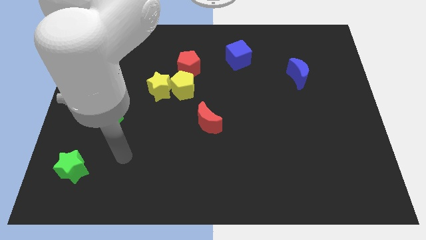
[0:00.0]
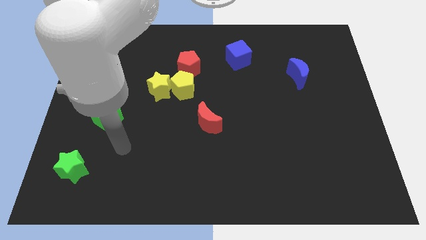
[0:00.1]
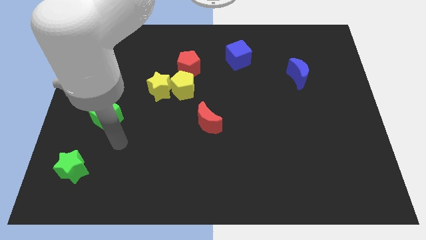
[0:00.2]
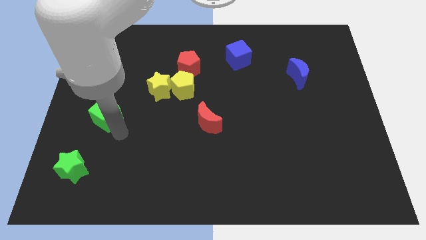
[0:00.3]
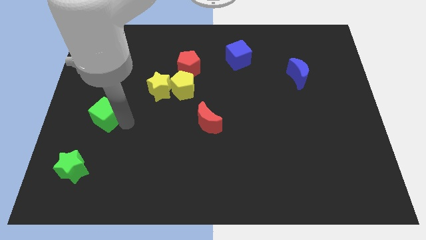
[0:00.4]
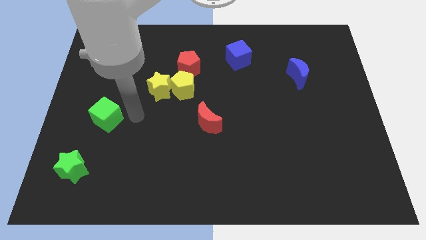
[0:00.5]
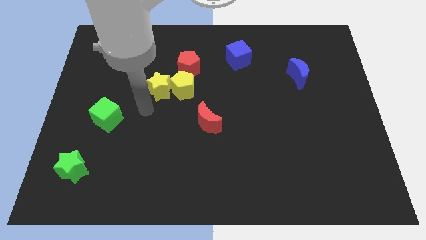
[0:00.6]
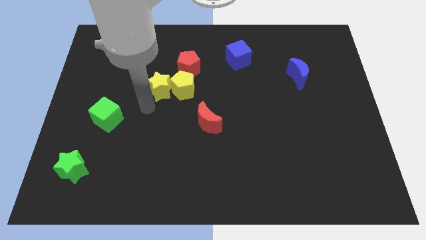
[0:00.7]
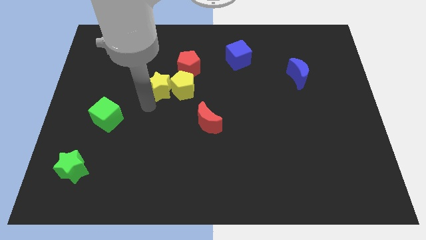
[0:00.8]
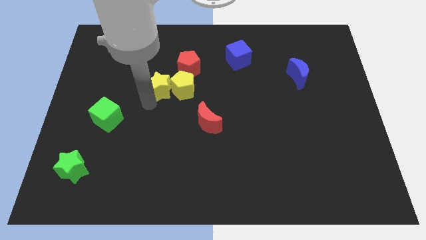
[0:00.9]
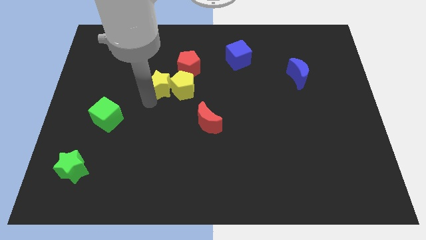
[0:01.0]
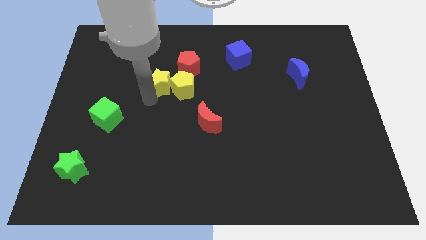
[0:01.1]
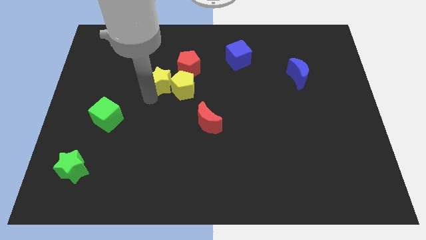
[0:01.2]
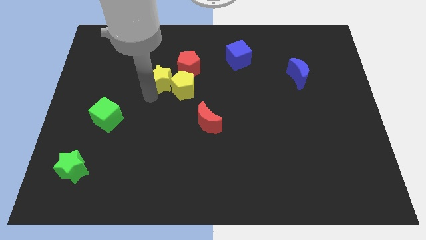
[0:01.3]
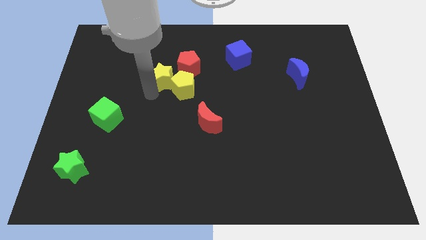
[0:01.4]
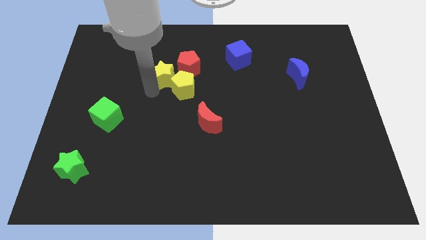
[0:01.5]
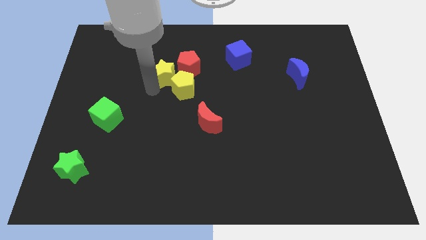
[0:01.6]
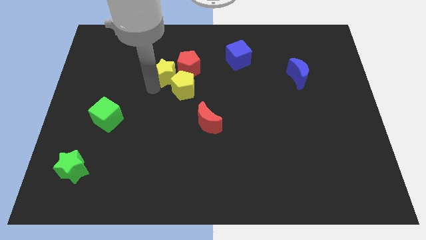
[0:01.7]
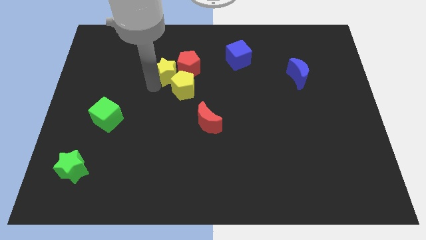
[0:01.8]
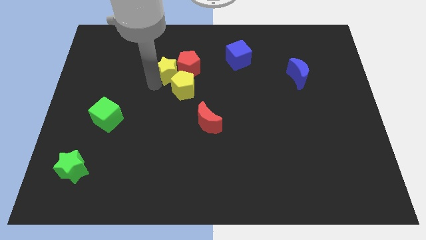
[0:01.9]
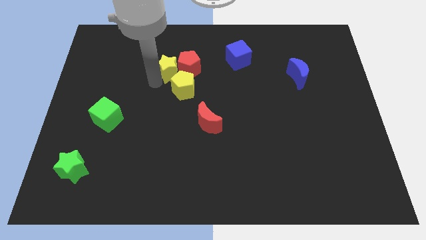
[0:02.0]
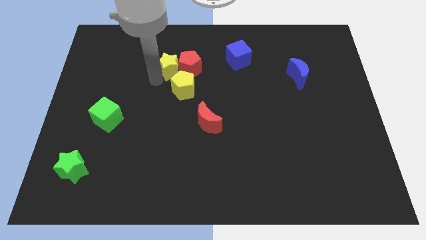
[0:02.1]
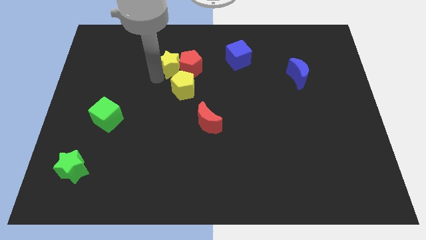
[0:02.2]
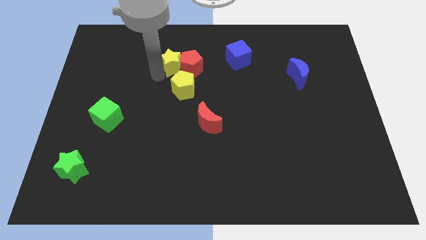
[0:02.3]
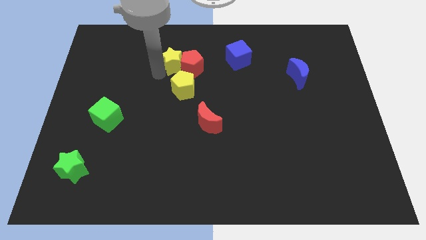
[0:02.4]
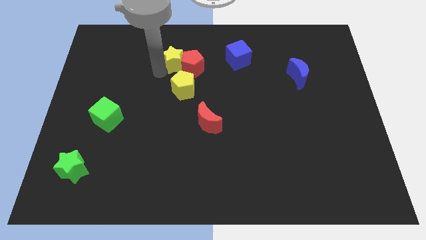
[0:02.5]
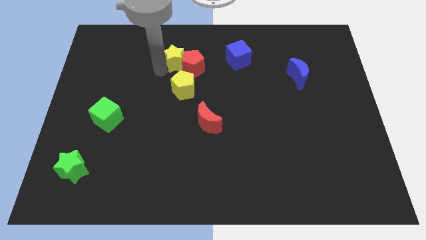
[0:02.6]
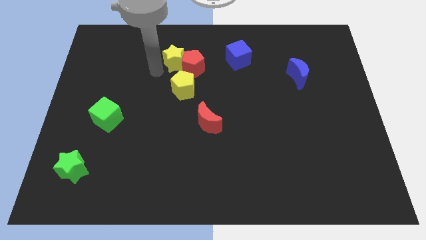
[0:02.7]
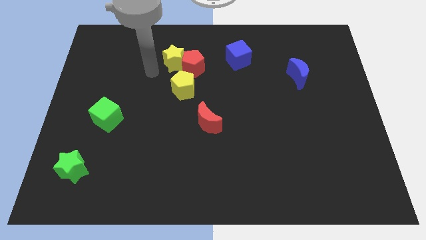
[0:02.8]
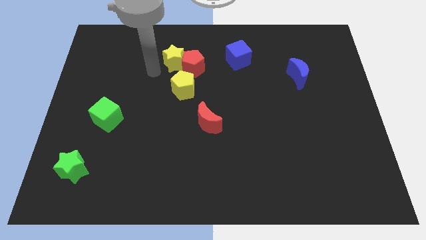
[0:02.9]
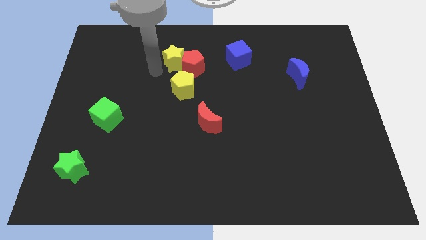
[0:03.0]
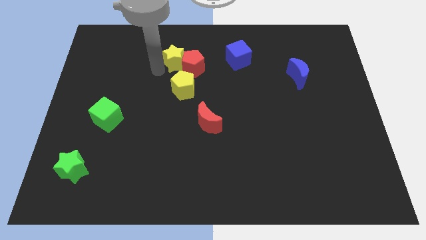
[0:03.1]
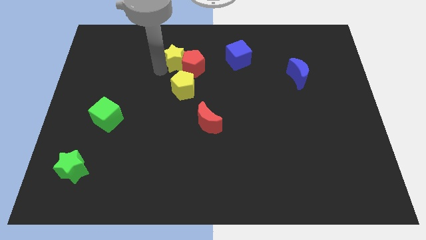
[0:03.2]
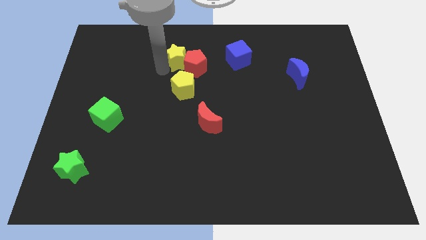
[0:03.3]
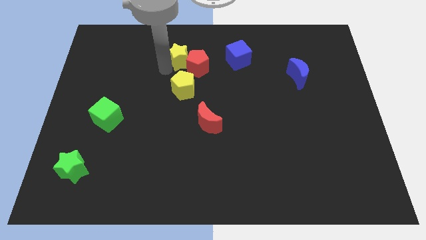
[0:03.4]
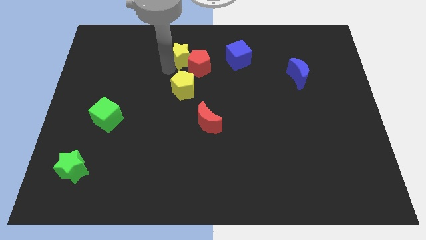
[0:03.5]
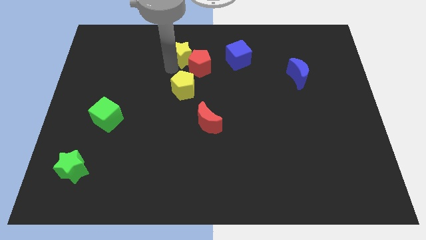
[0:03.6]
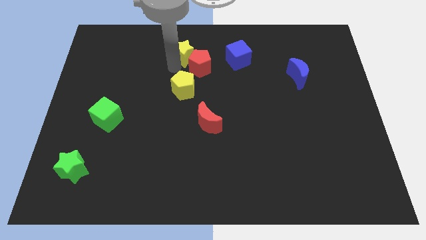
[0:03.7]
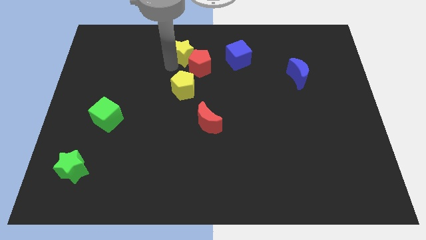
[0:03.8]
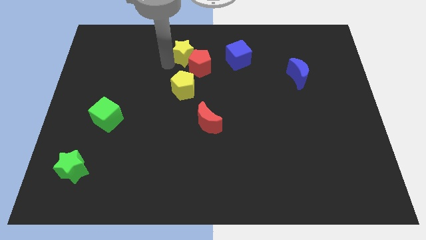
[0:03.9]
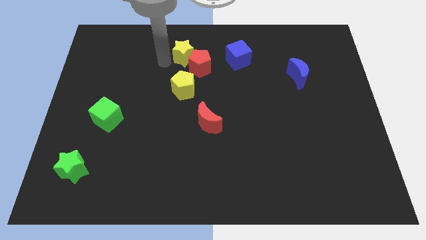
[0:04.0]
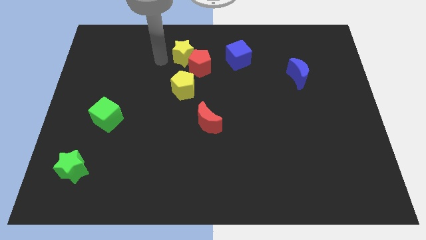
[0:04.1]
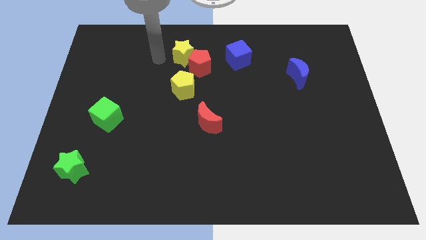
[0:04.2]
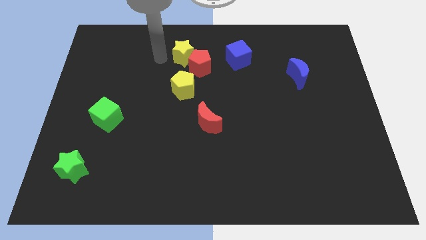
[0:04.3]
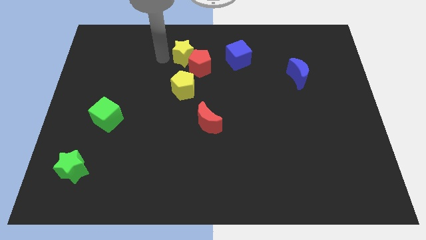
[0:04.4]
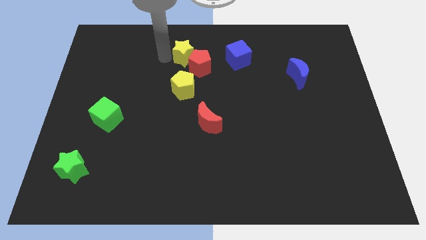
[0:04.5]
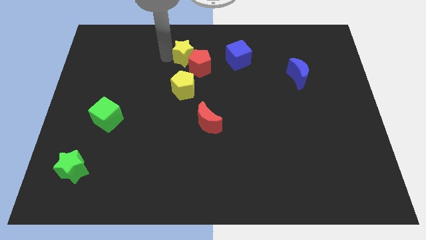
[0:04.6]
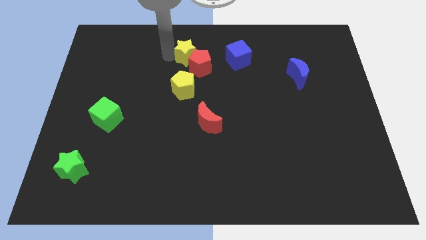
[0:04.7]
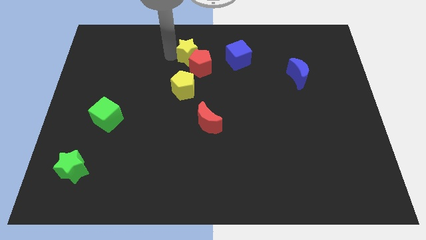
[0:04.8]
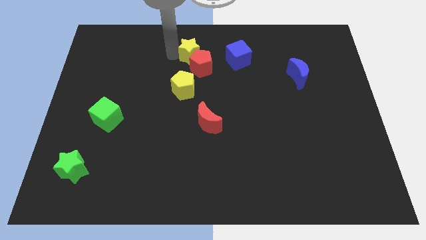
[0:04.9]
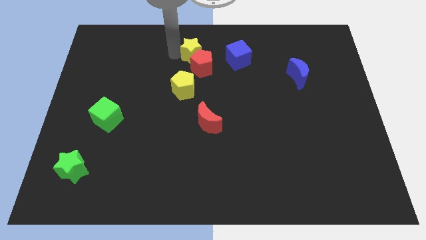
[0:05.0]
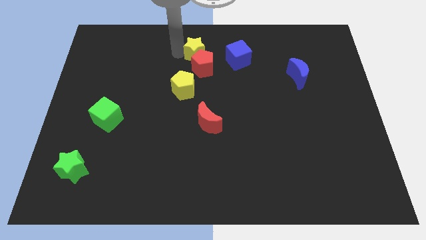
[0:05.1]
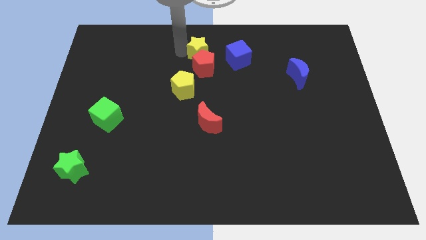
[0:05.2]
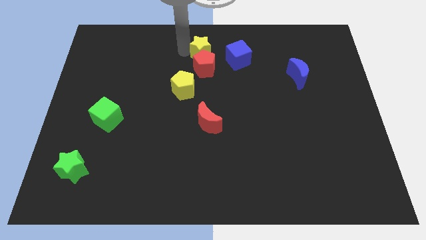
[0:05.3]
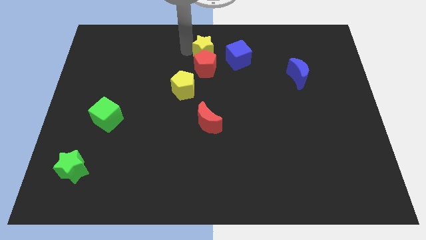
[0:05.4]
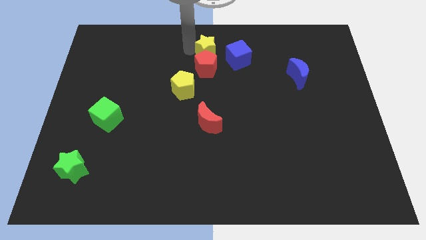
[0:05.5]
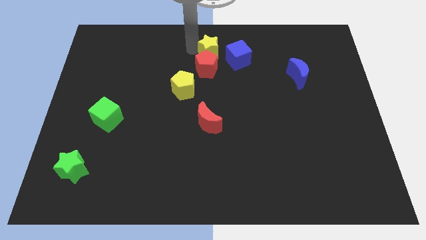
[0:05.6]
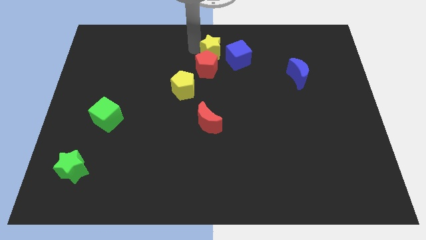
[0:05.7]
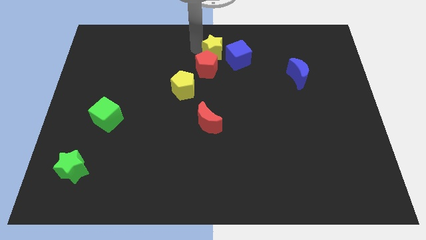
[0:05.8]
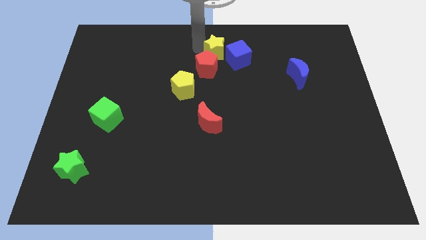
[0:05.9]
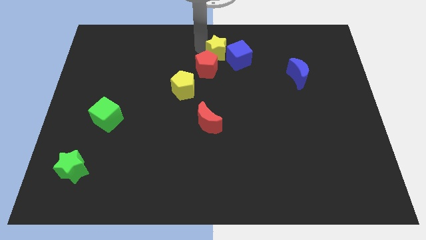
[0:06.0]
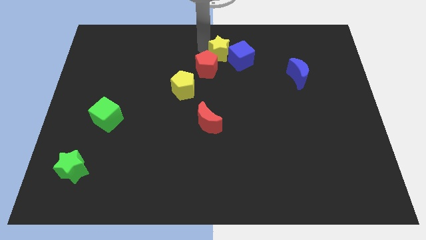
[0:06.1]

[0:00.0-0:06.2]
slide the yellow star close to the blue cube

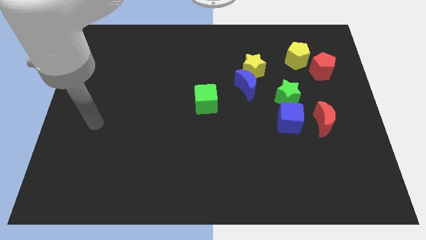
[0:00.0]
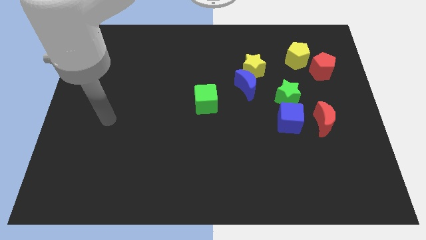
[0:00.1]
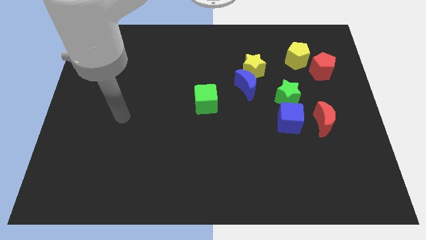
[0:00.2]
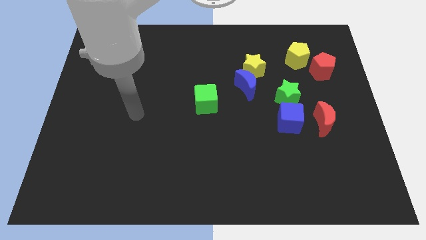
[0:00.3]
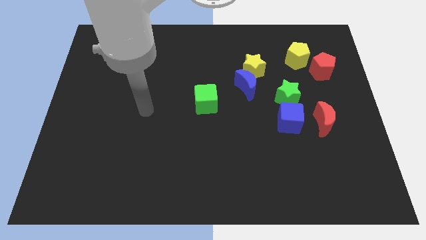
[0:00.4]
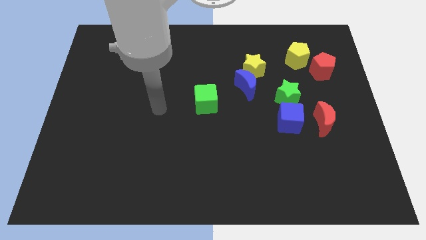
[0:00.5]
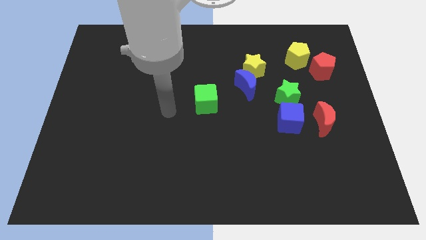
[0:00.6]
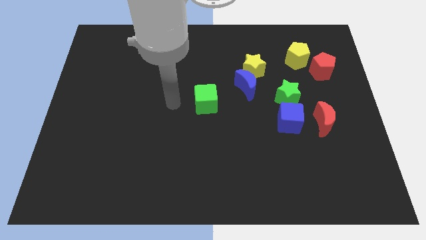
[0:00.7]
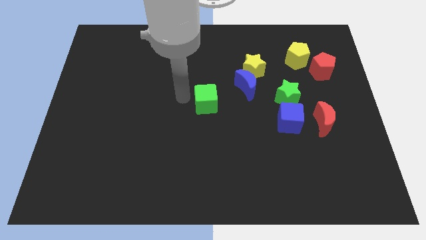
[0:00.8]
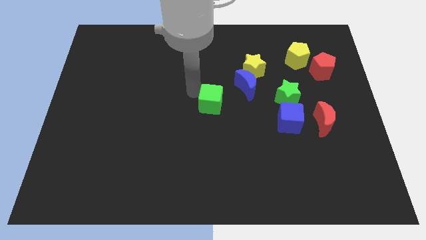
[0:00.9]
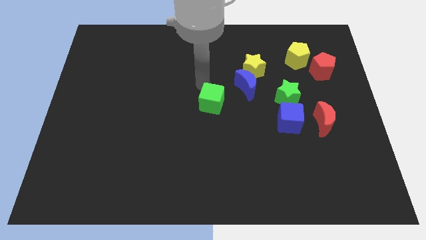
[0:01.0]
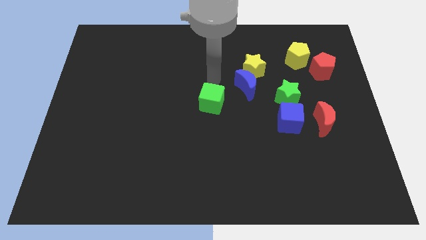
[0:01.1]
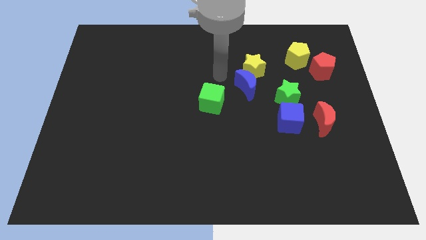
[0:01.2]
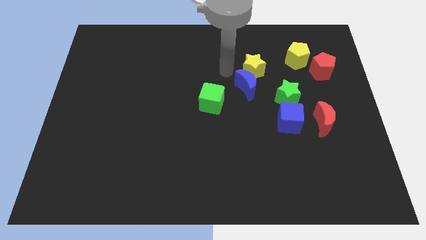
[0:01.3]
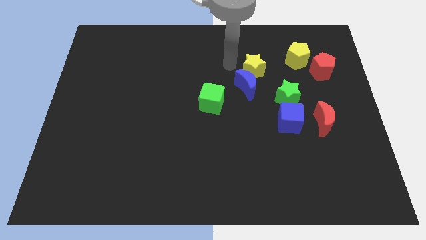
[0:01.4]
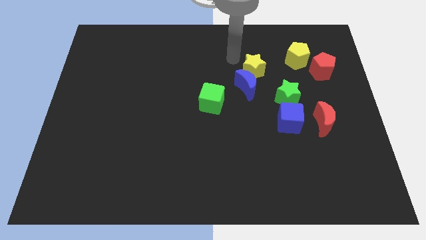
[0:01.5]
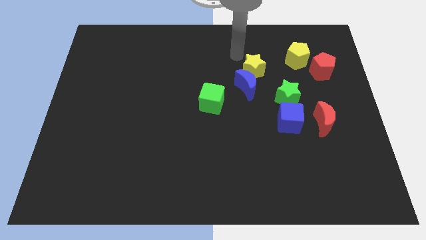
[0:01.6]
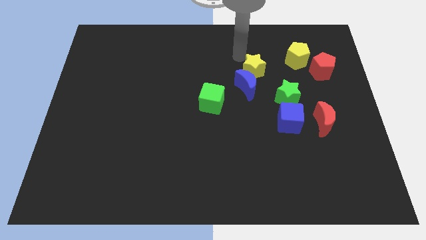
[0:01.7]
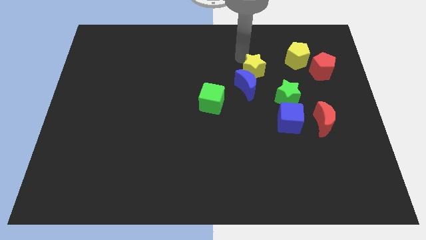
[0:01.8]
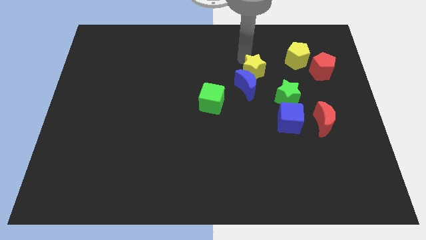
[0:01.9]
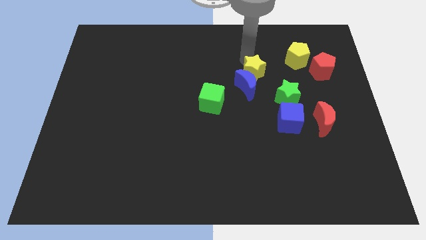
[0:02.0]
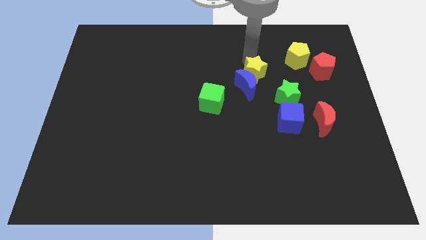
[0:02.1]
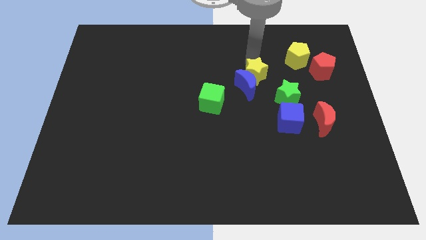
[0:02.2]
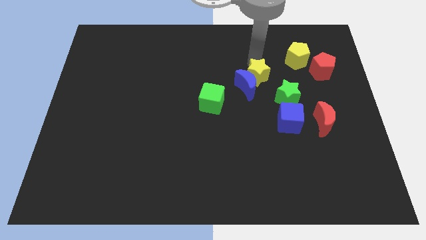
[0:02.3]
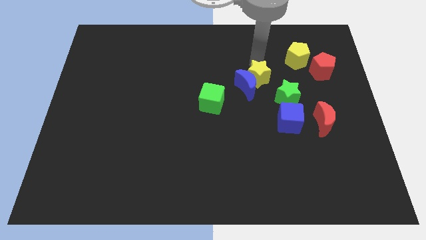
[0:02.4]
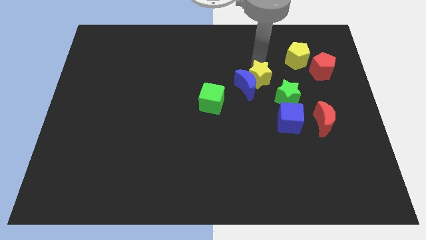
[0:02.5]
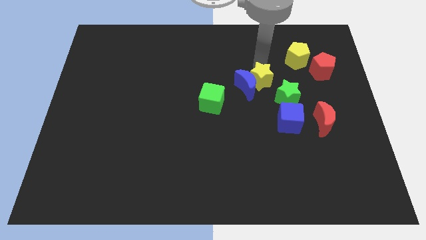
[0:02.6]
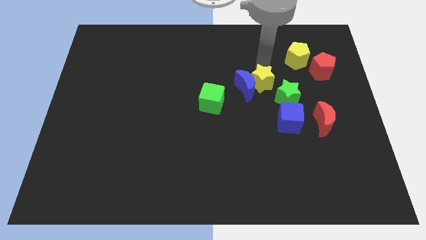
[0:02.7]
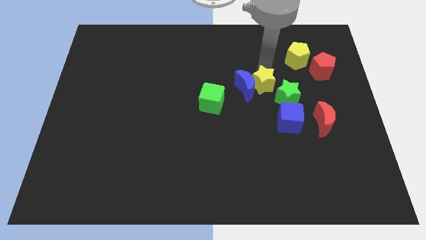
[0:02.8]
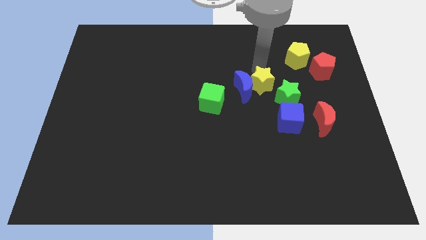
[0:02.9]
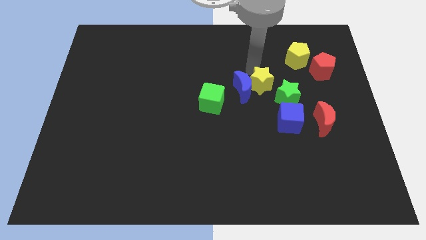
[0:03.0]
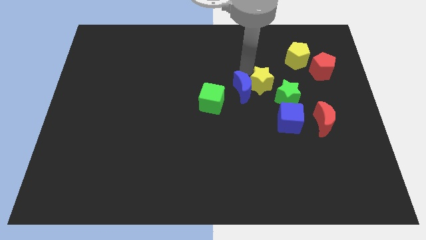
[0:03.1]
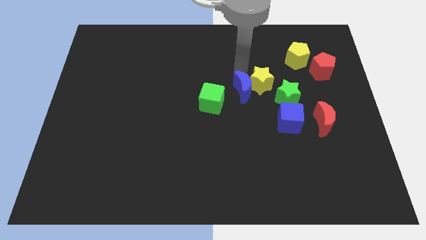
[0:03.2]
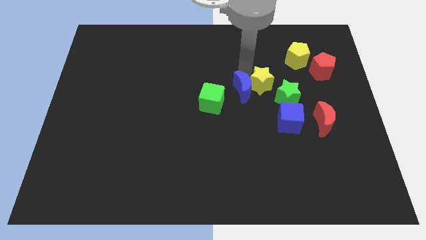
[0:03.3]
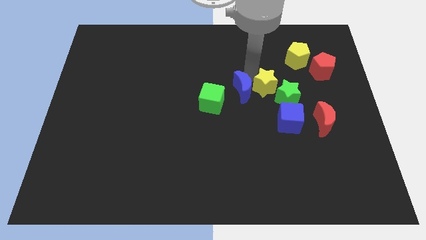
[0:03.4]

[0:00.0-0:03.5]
push the yellow star towards the green star
